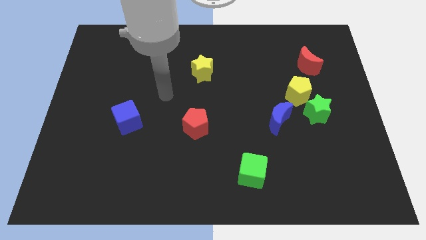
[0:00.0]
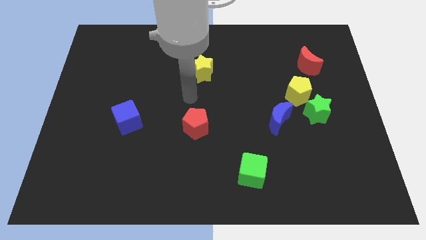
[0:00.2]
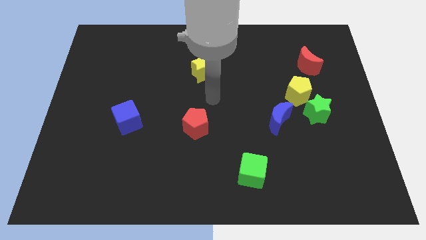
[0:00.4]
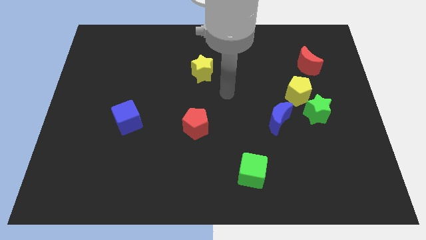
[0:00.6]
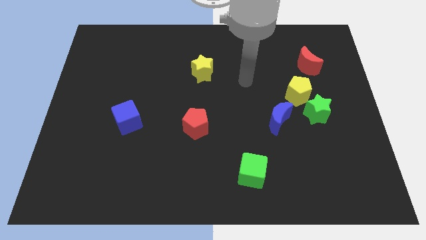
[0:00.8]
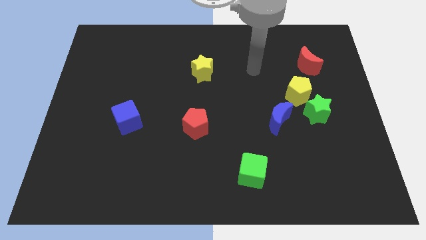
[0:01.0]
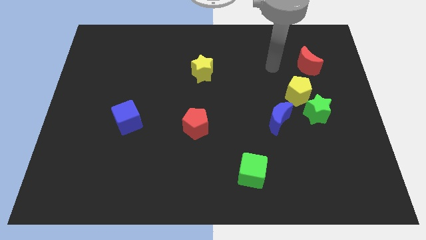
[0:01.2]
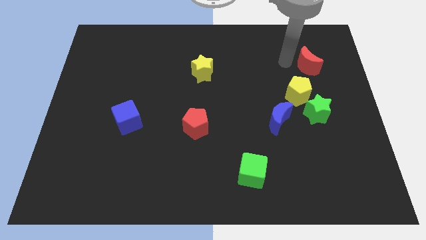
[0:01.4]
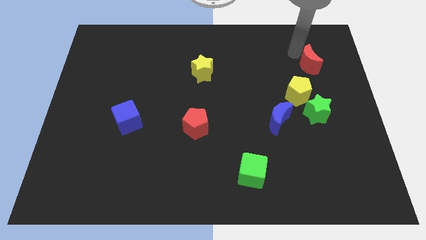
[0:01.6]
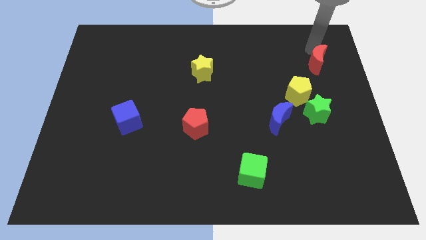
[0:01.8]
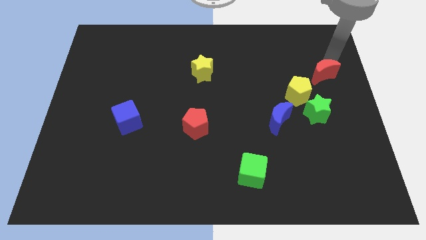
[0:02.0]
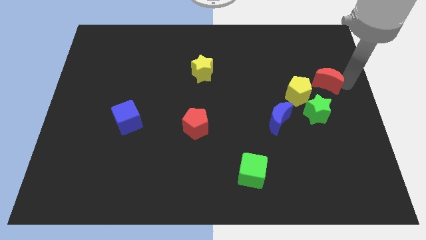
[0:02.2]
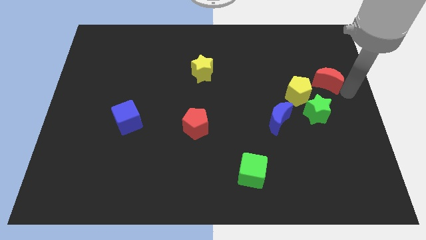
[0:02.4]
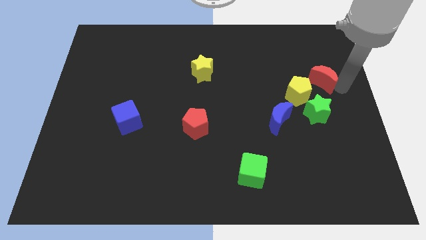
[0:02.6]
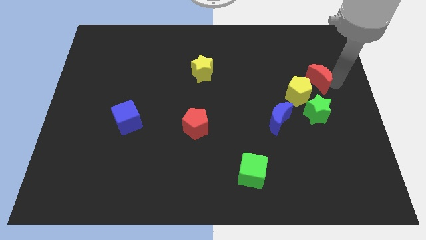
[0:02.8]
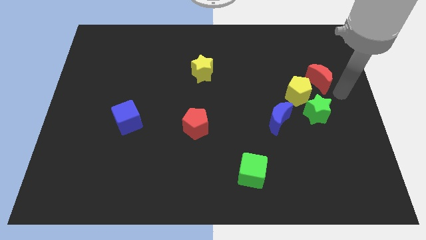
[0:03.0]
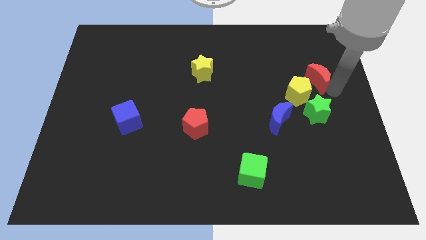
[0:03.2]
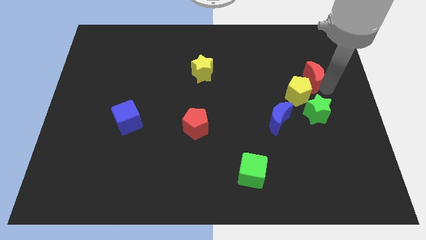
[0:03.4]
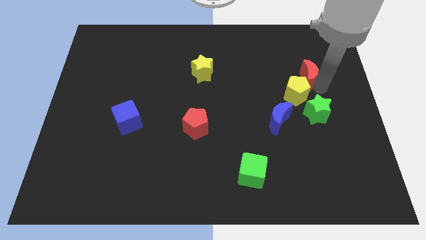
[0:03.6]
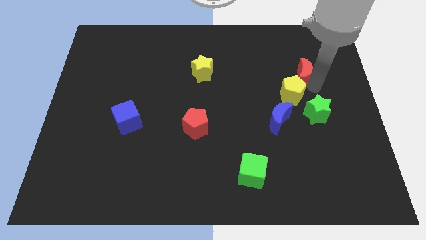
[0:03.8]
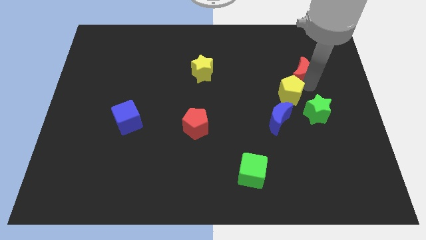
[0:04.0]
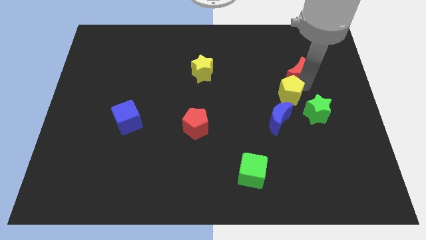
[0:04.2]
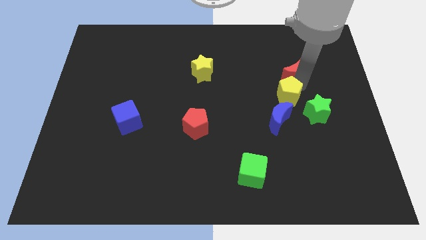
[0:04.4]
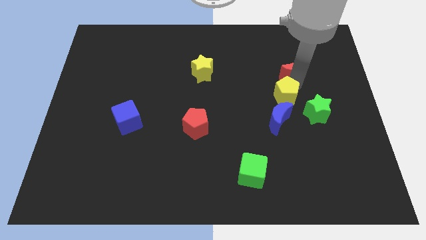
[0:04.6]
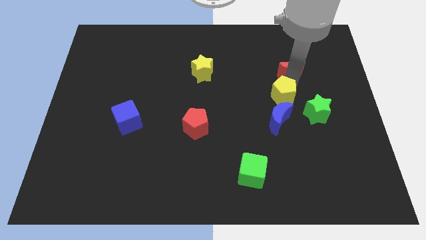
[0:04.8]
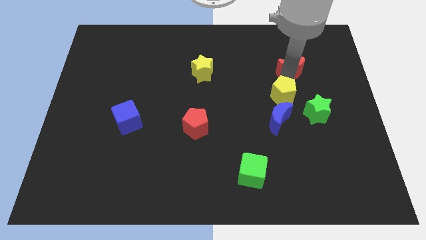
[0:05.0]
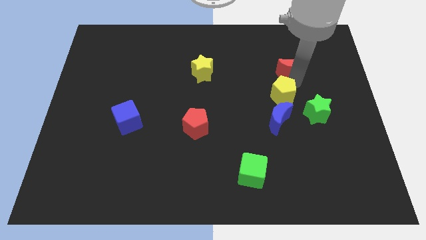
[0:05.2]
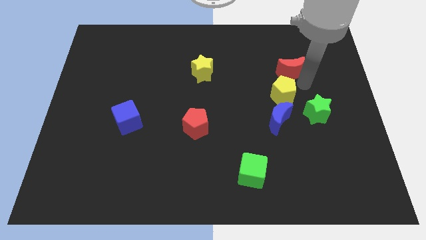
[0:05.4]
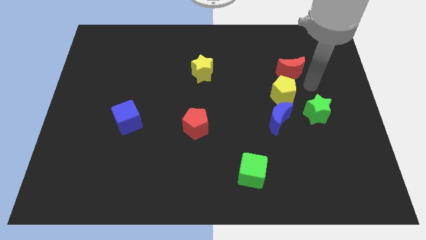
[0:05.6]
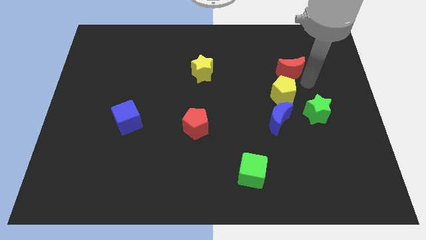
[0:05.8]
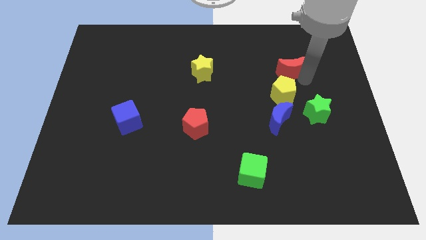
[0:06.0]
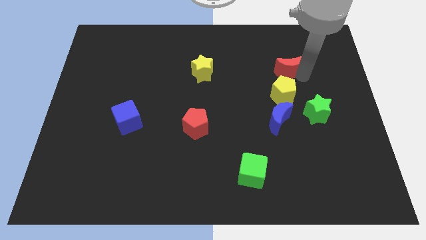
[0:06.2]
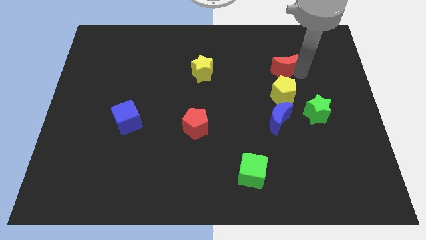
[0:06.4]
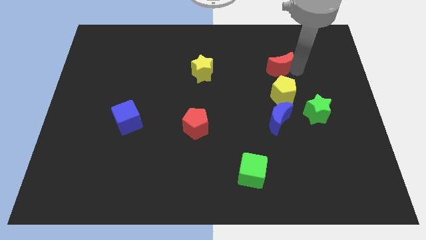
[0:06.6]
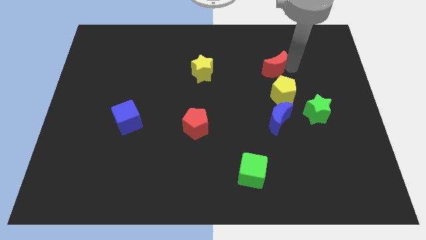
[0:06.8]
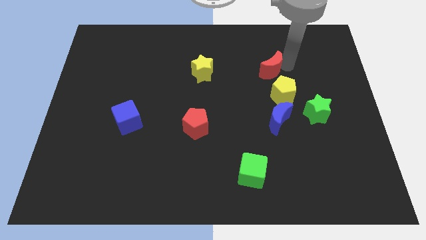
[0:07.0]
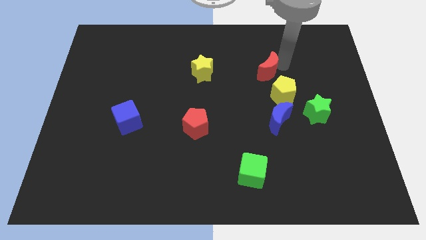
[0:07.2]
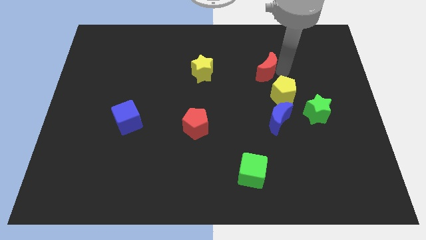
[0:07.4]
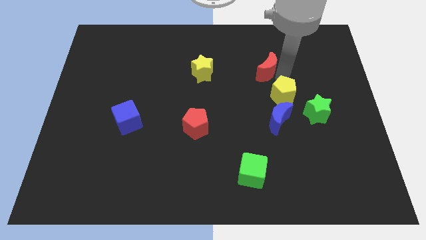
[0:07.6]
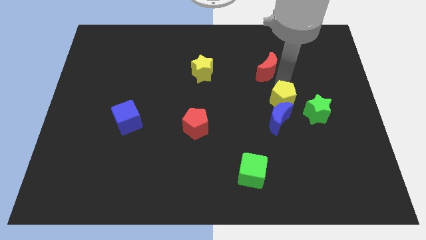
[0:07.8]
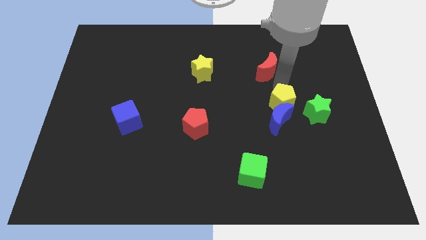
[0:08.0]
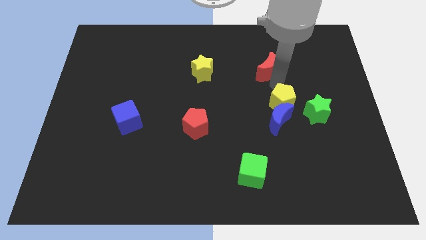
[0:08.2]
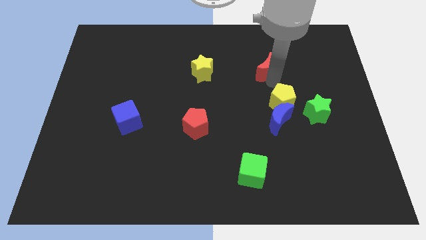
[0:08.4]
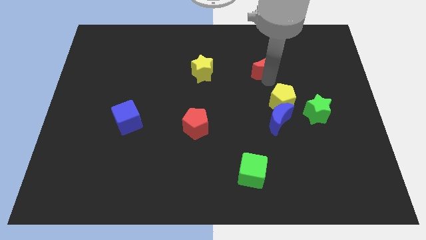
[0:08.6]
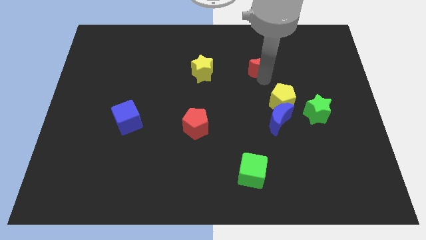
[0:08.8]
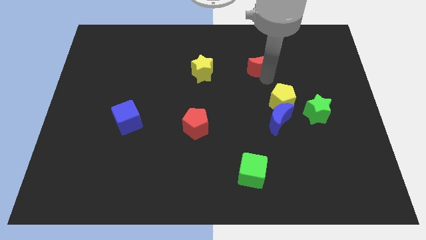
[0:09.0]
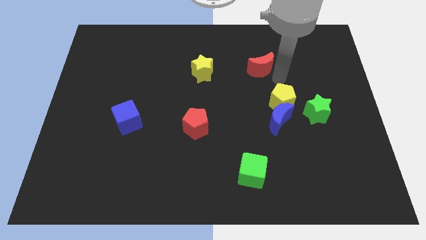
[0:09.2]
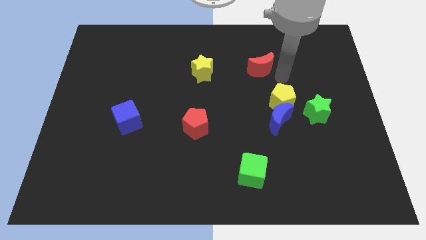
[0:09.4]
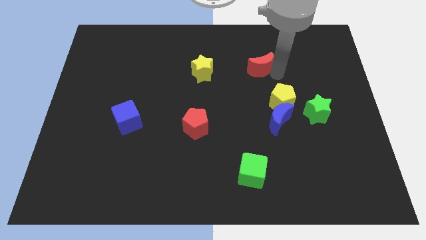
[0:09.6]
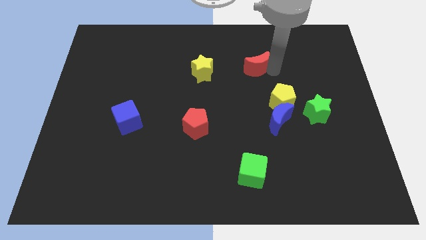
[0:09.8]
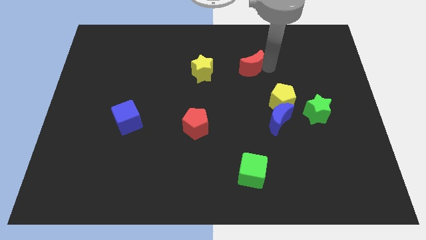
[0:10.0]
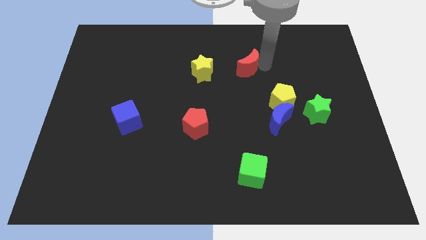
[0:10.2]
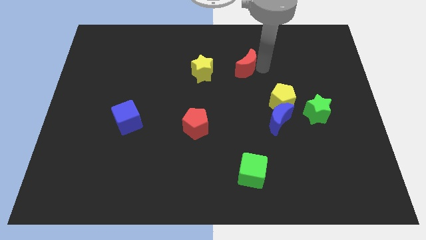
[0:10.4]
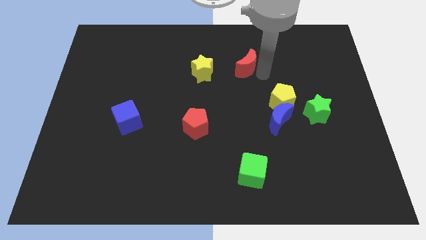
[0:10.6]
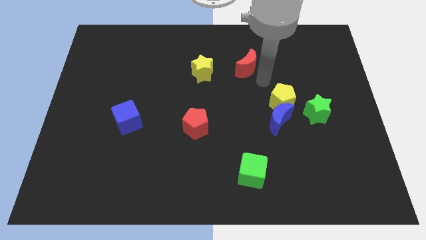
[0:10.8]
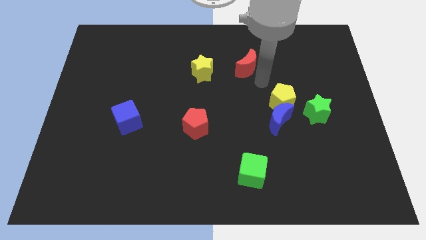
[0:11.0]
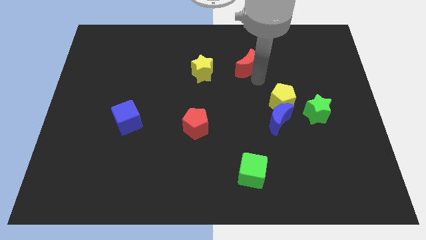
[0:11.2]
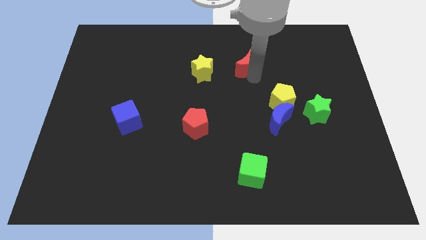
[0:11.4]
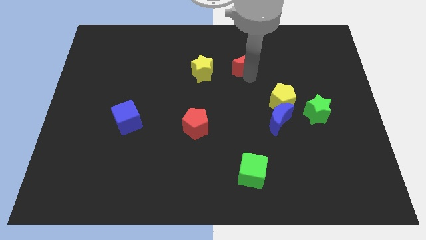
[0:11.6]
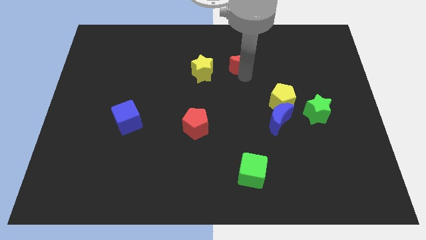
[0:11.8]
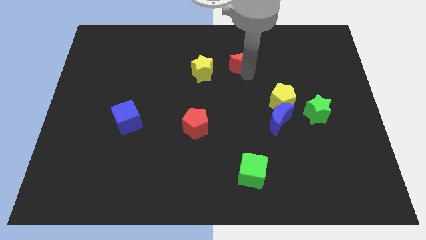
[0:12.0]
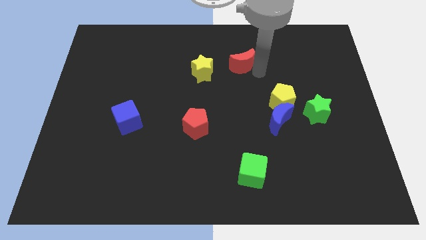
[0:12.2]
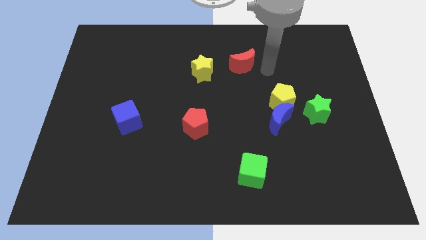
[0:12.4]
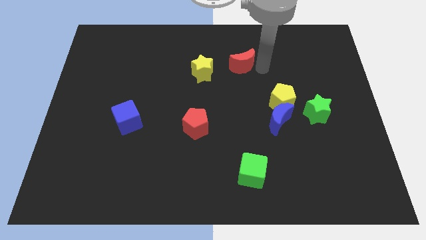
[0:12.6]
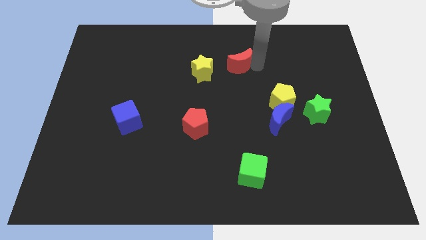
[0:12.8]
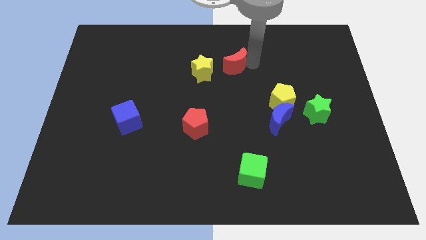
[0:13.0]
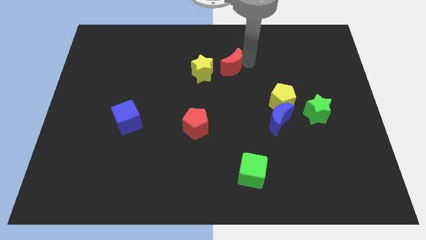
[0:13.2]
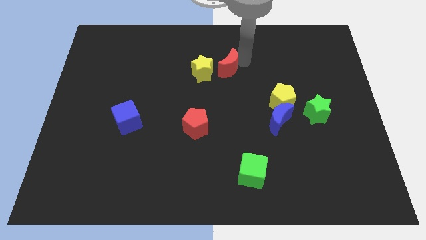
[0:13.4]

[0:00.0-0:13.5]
push the red moon to the left

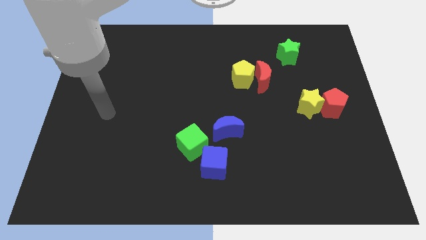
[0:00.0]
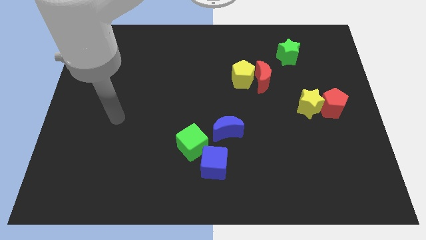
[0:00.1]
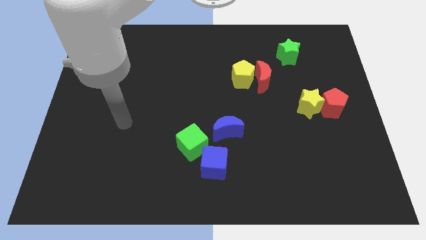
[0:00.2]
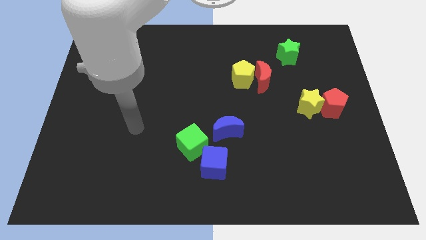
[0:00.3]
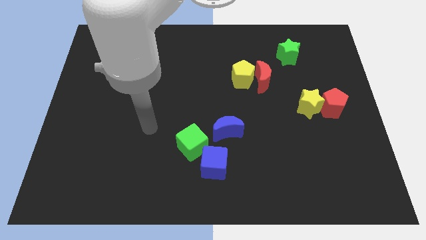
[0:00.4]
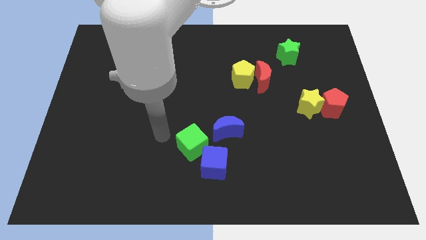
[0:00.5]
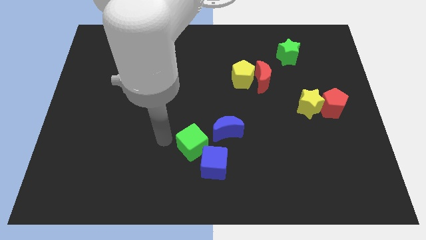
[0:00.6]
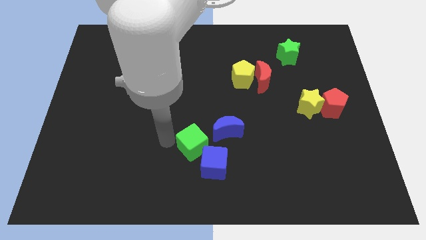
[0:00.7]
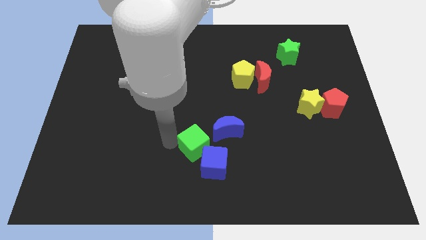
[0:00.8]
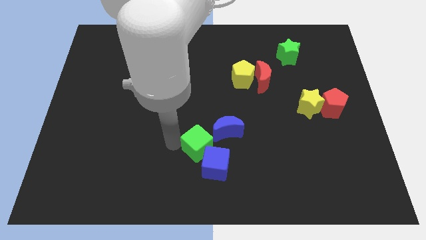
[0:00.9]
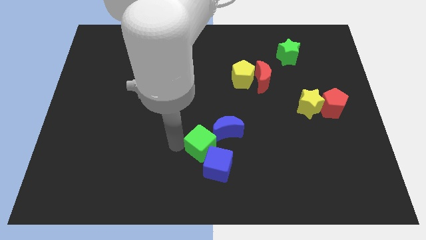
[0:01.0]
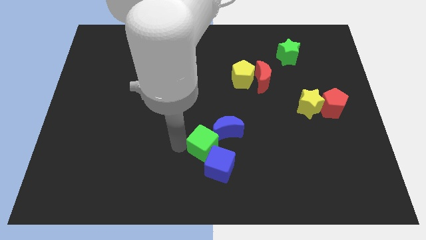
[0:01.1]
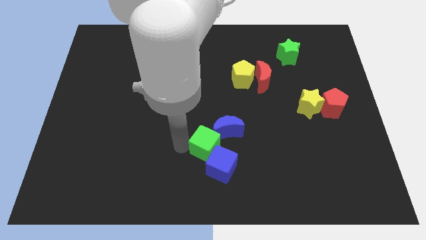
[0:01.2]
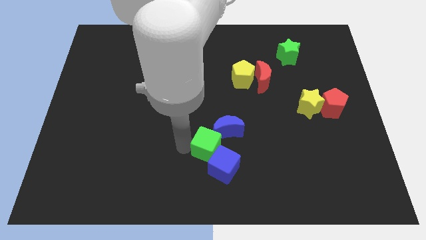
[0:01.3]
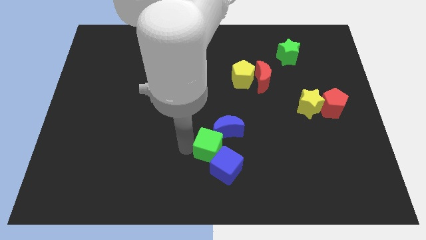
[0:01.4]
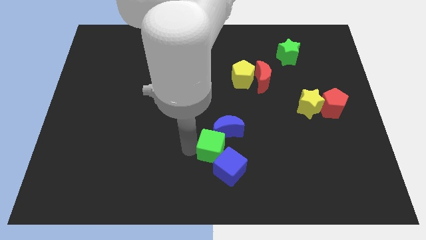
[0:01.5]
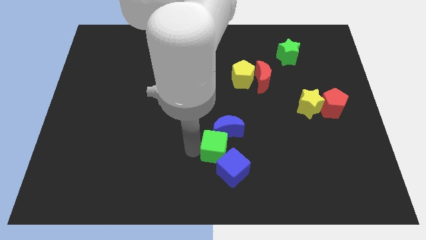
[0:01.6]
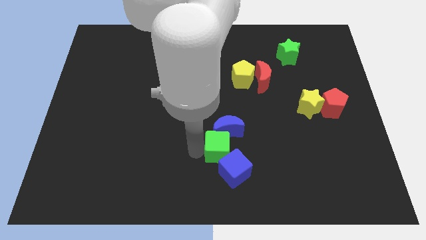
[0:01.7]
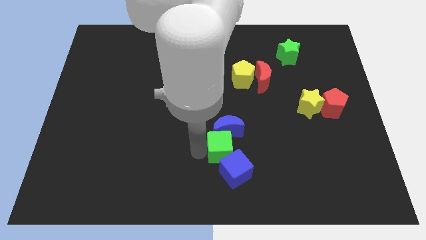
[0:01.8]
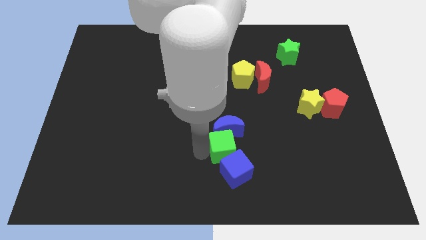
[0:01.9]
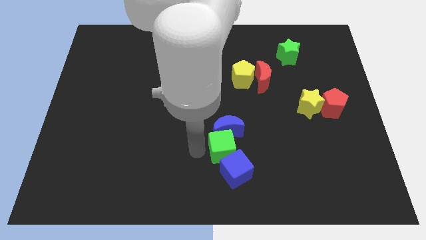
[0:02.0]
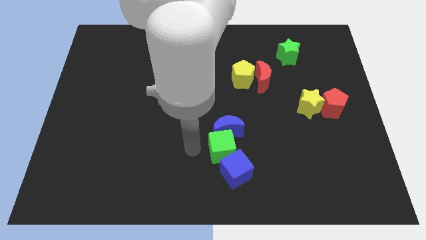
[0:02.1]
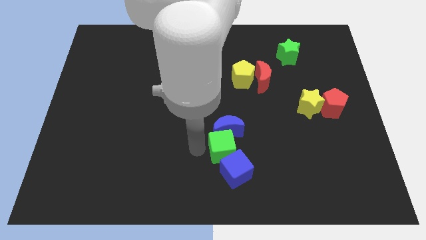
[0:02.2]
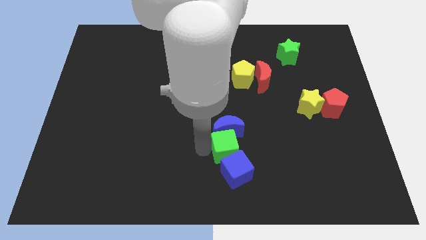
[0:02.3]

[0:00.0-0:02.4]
slightly move the green cube to the right
